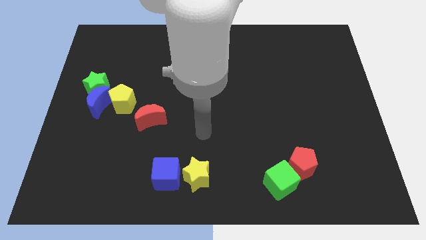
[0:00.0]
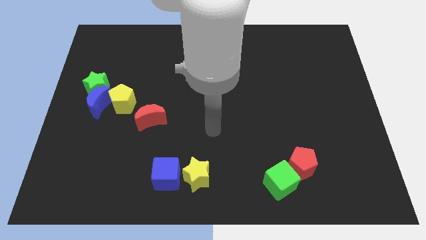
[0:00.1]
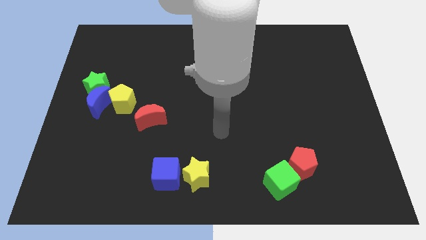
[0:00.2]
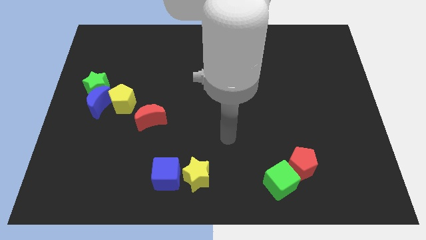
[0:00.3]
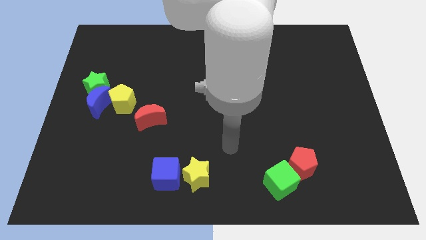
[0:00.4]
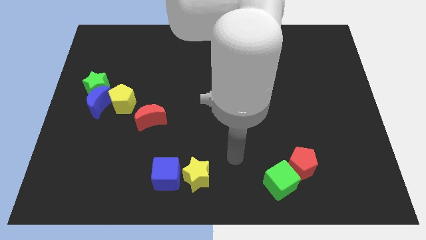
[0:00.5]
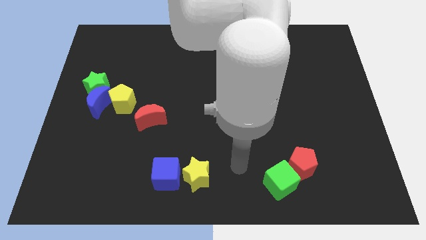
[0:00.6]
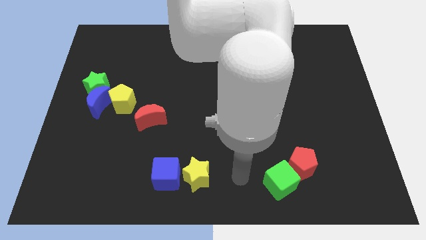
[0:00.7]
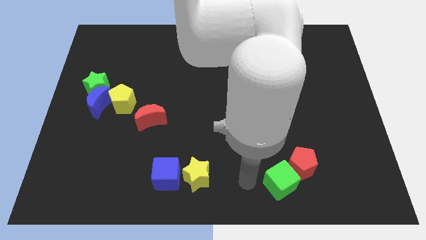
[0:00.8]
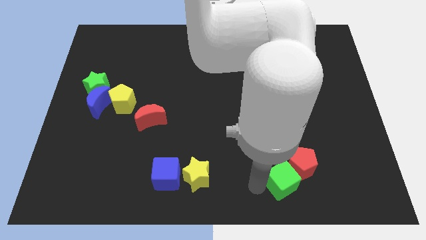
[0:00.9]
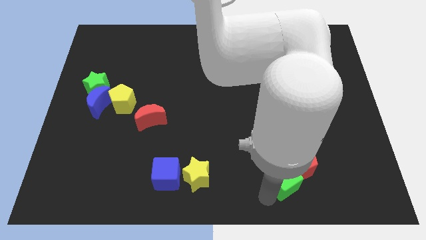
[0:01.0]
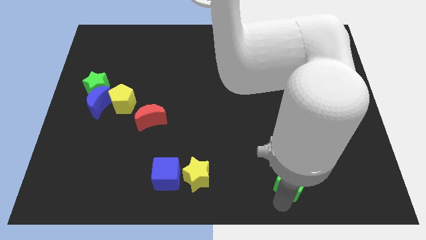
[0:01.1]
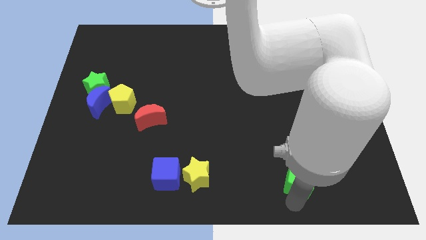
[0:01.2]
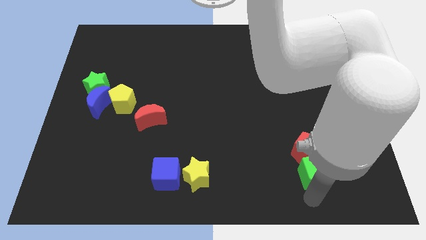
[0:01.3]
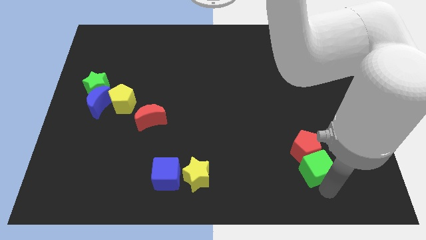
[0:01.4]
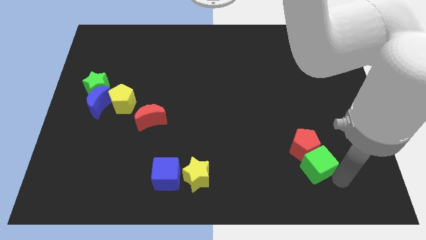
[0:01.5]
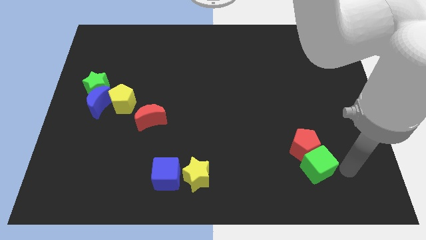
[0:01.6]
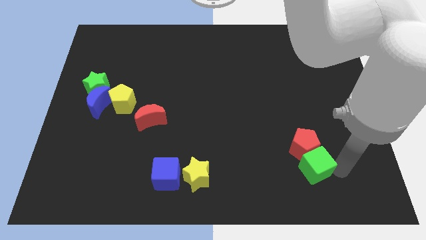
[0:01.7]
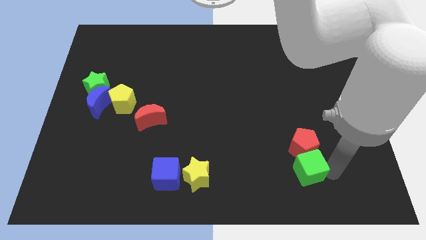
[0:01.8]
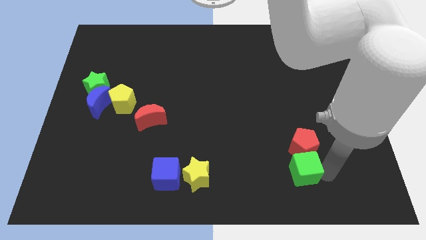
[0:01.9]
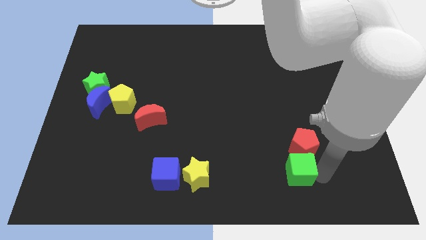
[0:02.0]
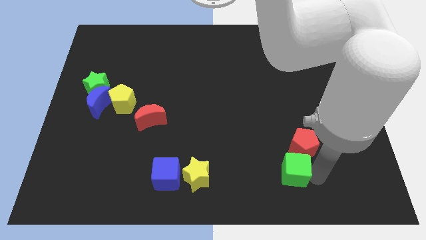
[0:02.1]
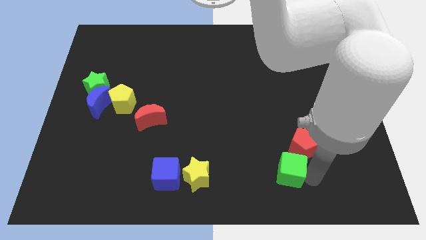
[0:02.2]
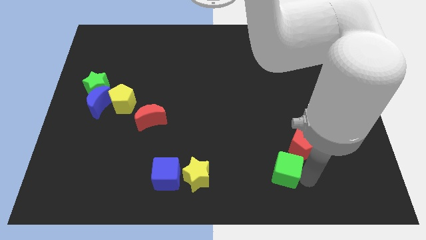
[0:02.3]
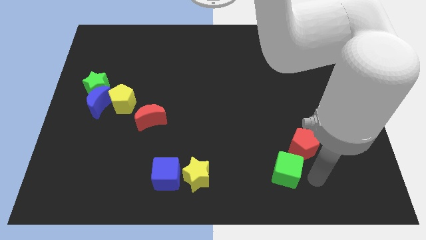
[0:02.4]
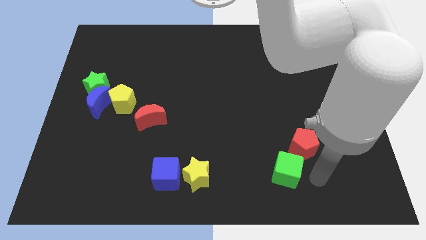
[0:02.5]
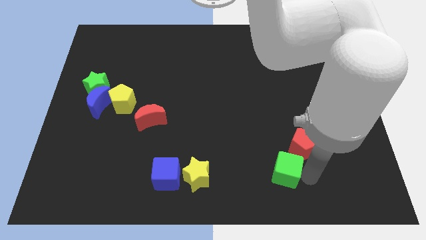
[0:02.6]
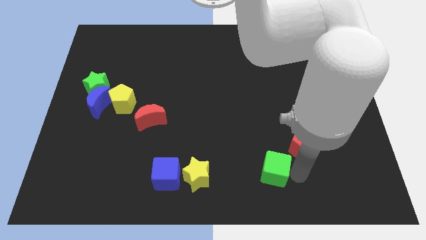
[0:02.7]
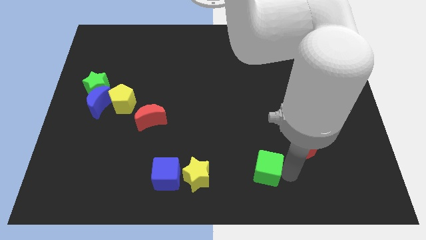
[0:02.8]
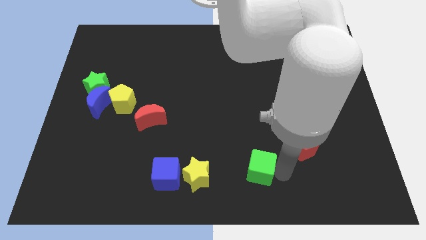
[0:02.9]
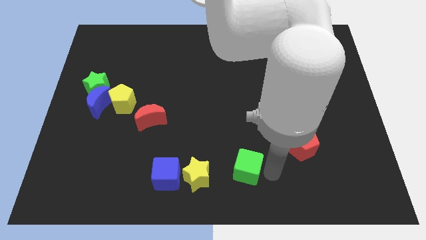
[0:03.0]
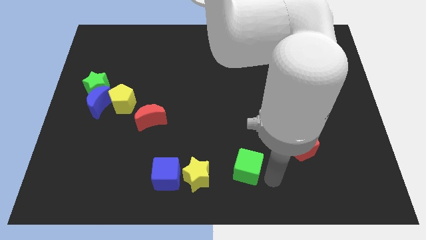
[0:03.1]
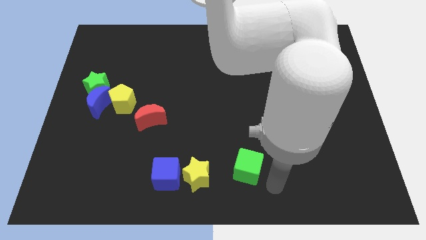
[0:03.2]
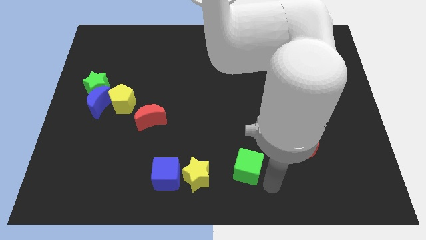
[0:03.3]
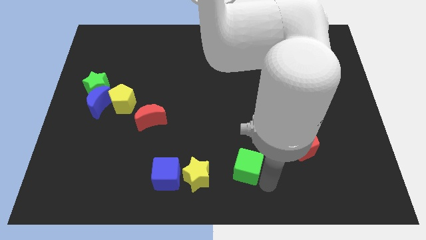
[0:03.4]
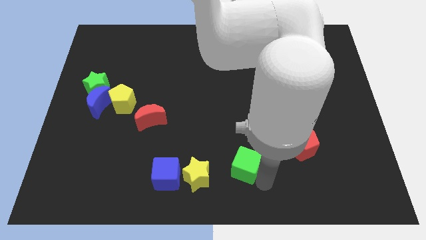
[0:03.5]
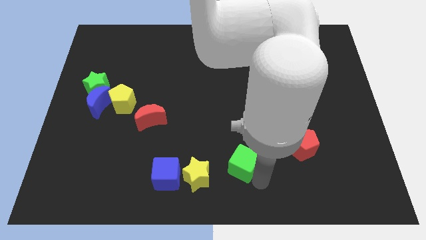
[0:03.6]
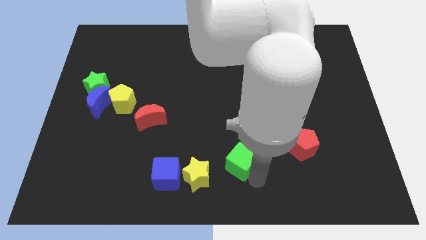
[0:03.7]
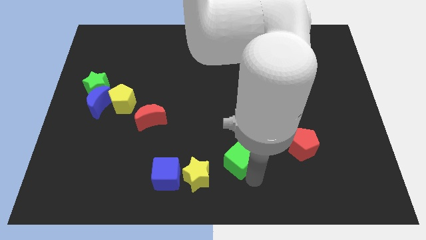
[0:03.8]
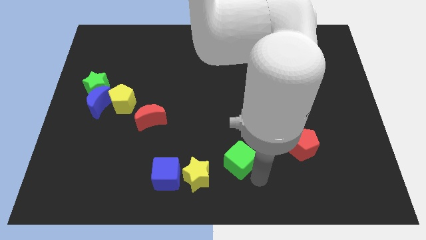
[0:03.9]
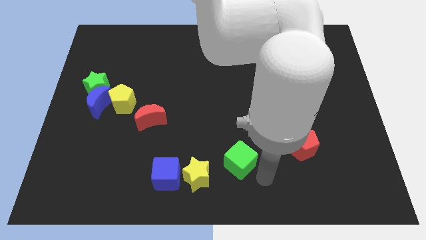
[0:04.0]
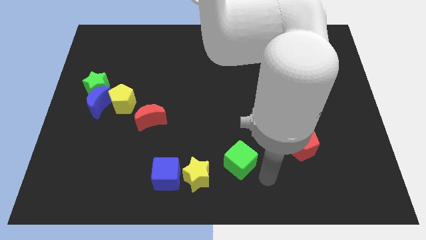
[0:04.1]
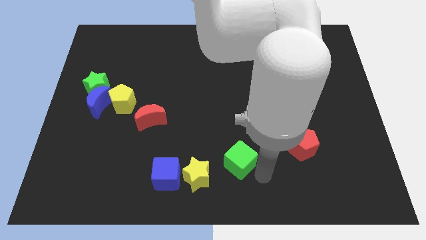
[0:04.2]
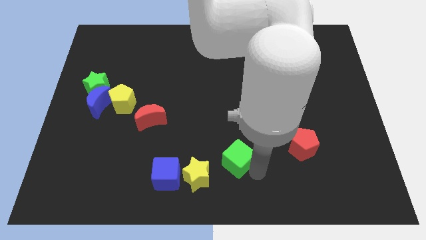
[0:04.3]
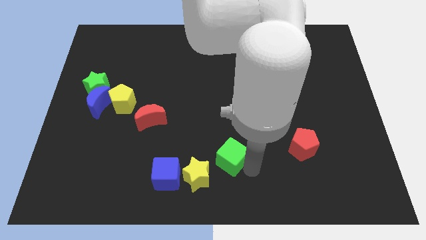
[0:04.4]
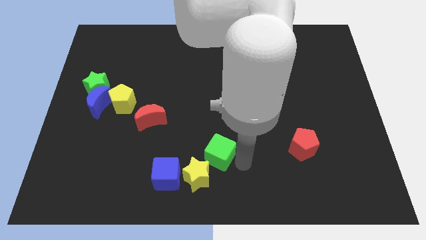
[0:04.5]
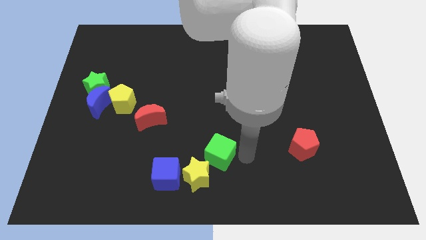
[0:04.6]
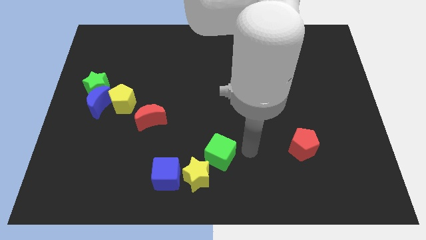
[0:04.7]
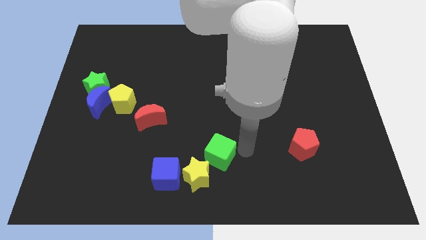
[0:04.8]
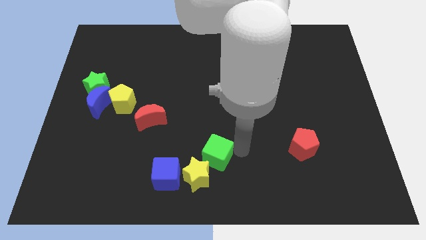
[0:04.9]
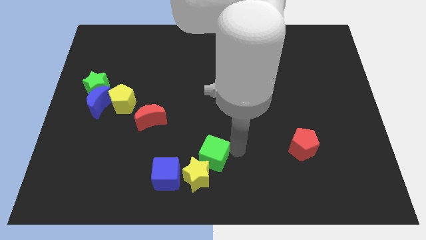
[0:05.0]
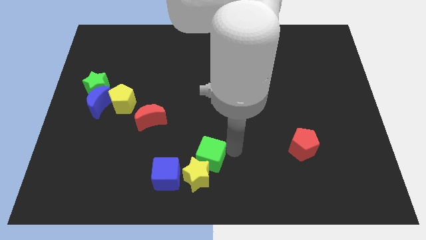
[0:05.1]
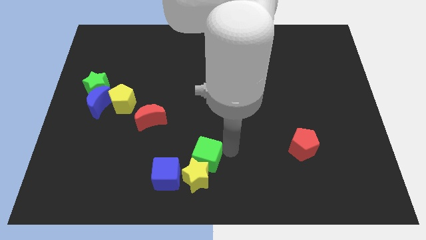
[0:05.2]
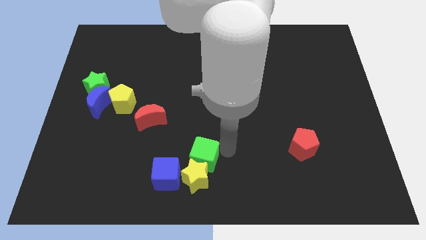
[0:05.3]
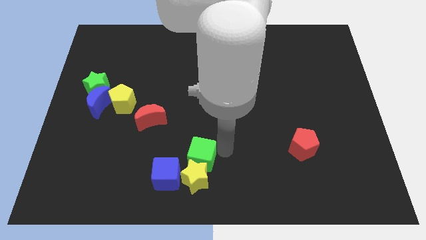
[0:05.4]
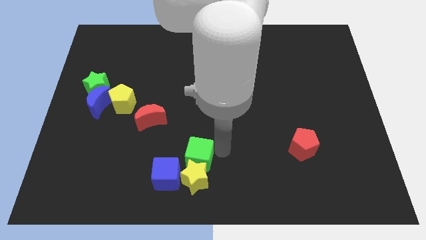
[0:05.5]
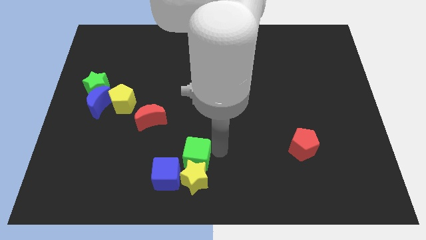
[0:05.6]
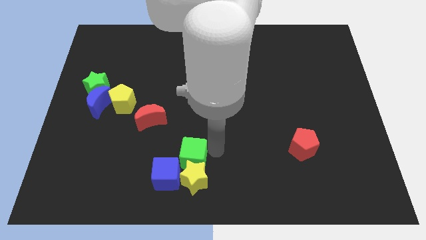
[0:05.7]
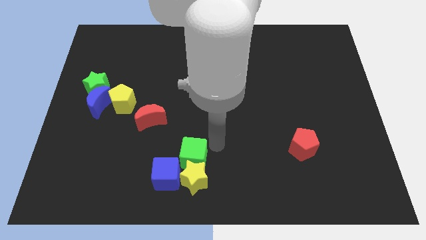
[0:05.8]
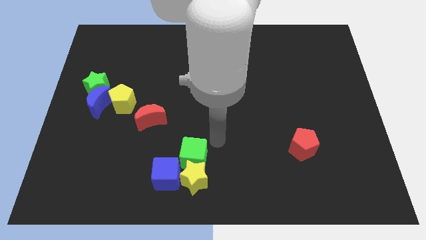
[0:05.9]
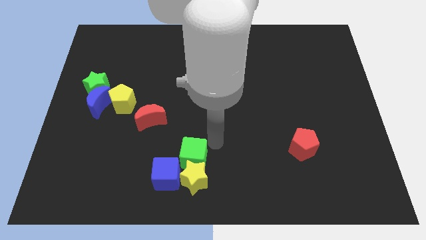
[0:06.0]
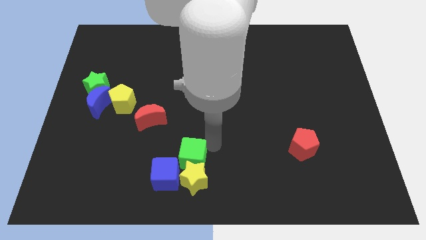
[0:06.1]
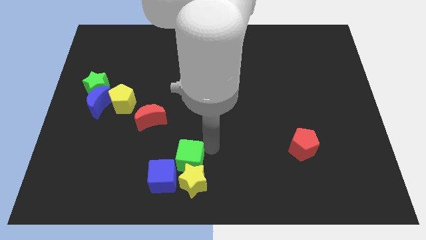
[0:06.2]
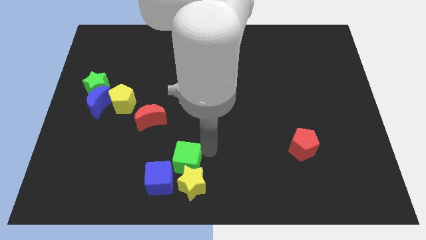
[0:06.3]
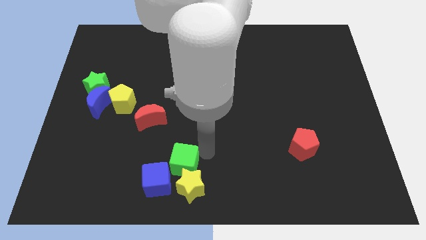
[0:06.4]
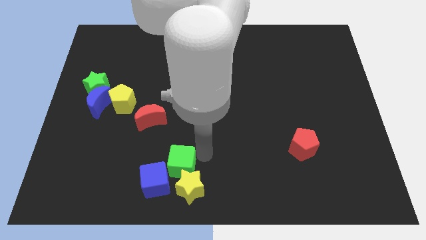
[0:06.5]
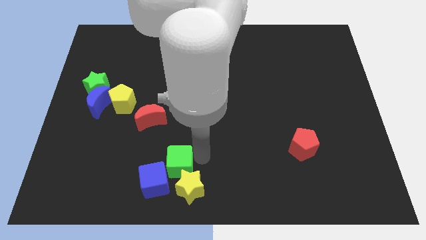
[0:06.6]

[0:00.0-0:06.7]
put the green cube next to the blue cube
